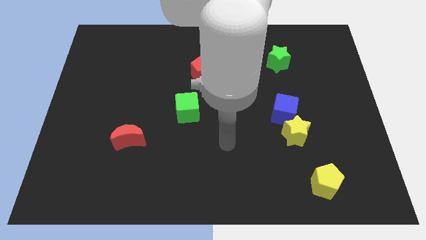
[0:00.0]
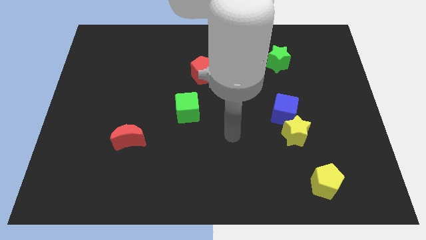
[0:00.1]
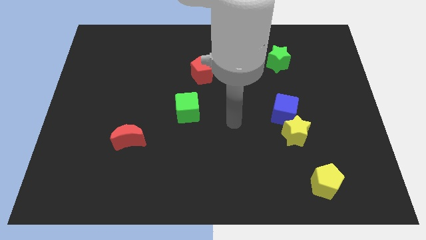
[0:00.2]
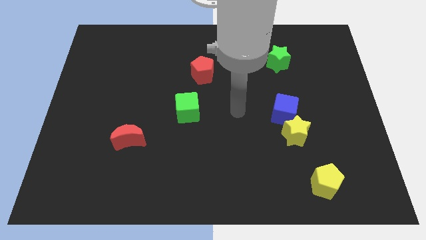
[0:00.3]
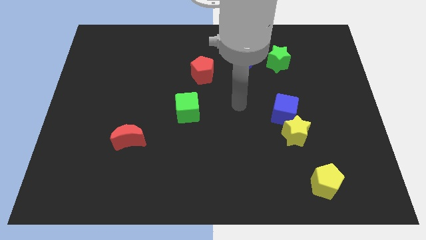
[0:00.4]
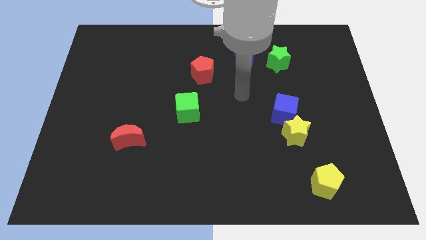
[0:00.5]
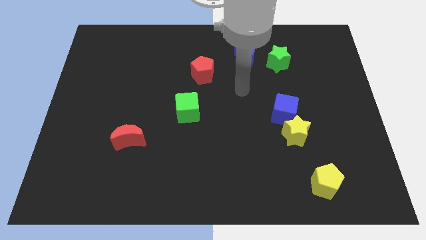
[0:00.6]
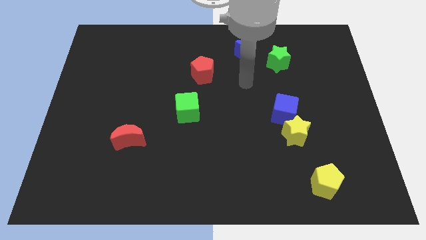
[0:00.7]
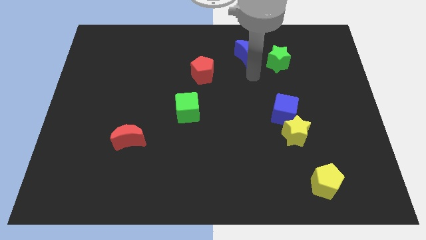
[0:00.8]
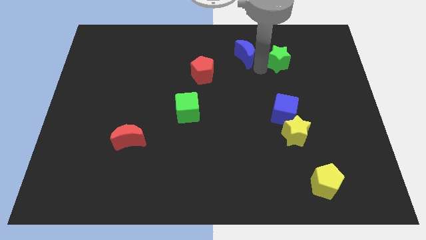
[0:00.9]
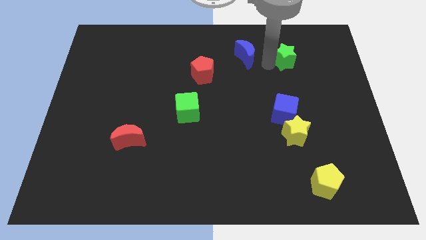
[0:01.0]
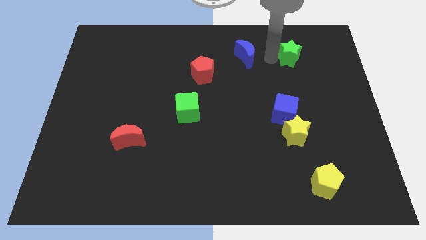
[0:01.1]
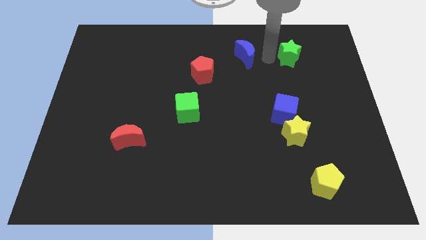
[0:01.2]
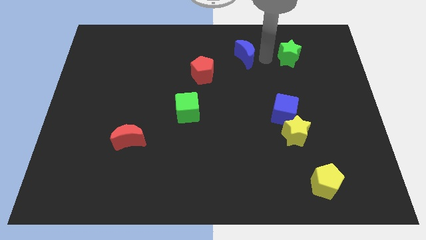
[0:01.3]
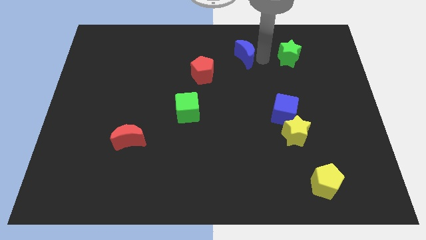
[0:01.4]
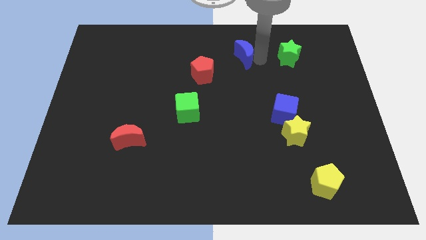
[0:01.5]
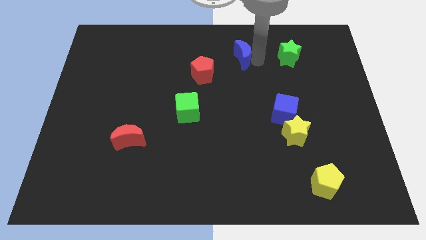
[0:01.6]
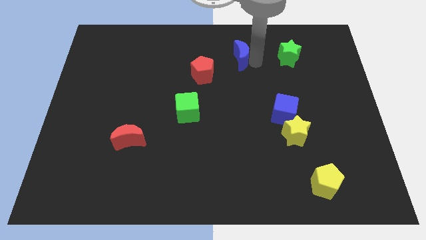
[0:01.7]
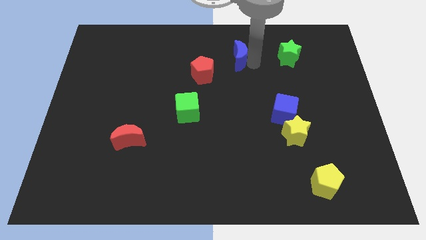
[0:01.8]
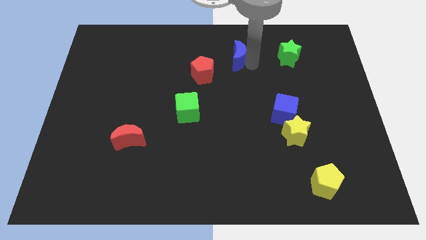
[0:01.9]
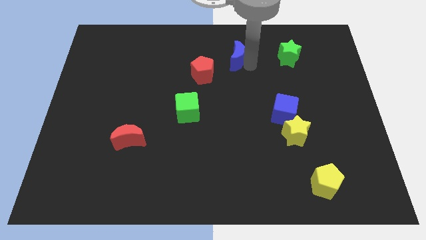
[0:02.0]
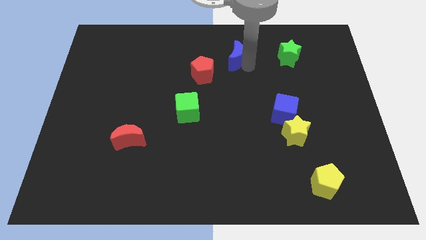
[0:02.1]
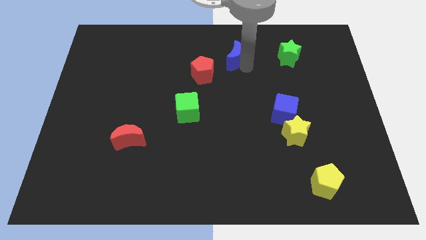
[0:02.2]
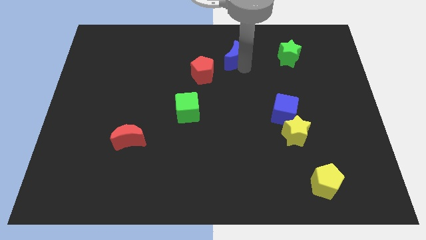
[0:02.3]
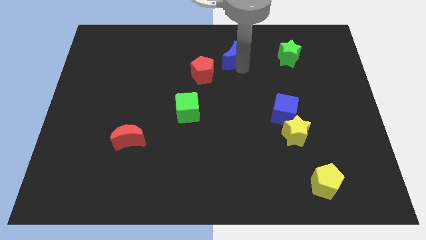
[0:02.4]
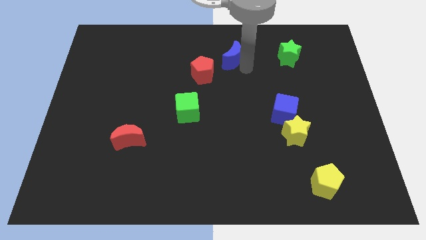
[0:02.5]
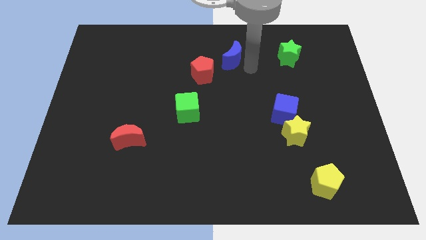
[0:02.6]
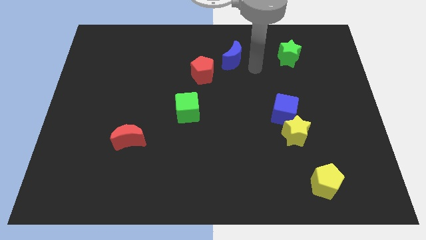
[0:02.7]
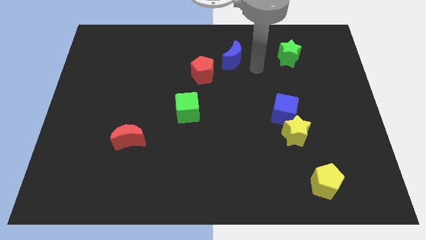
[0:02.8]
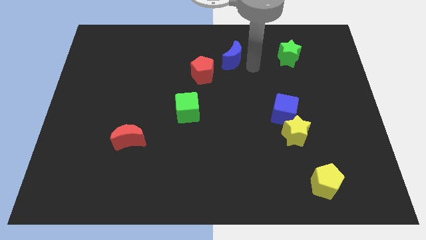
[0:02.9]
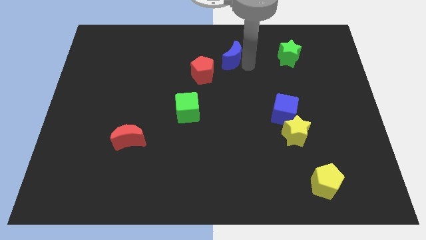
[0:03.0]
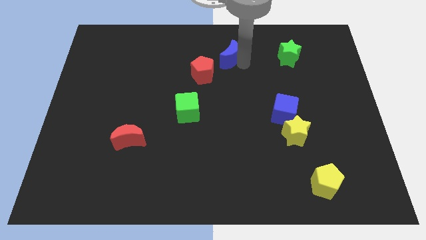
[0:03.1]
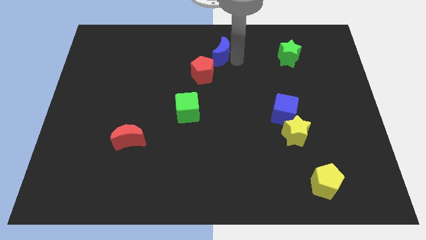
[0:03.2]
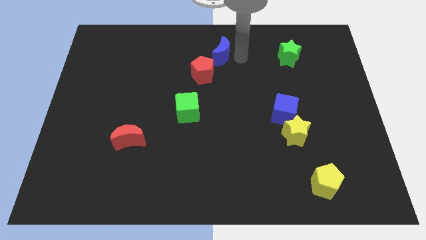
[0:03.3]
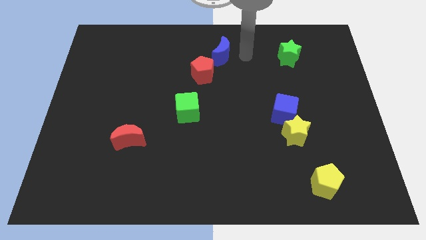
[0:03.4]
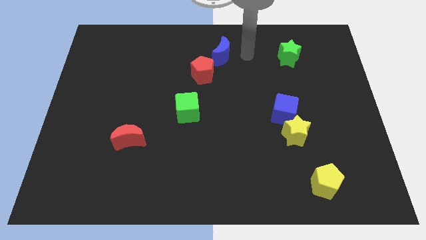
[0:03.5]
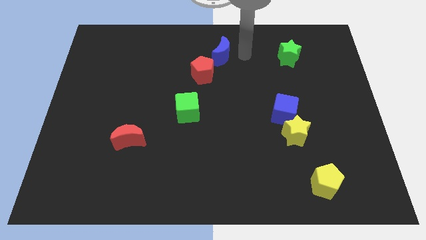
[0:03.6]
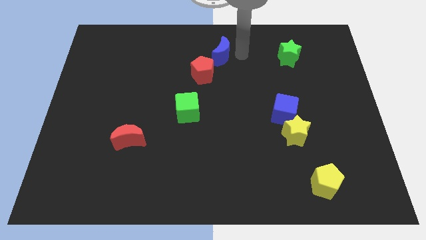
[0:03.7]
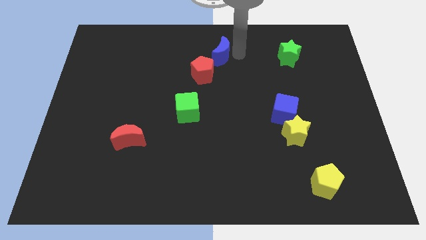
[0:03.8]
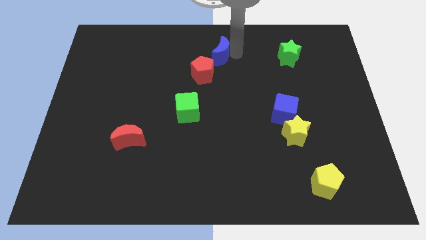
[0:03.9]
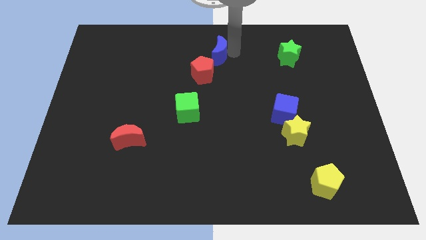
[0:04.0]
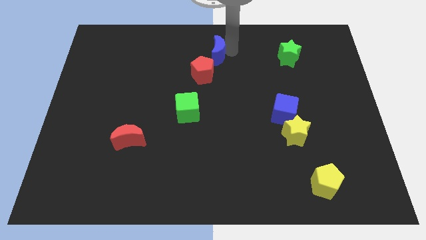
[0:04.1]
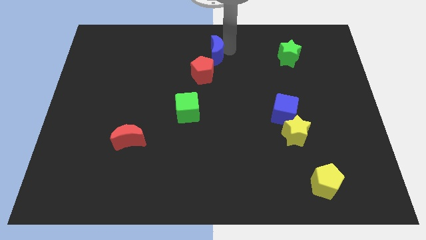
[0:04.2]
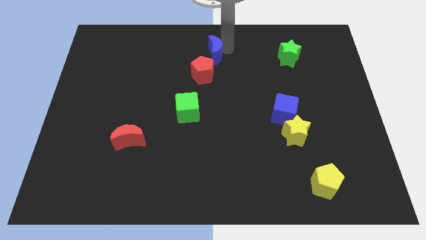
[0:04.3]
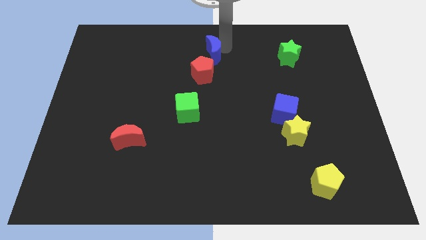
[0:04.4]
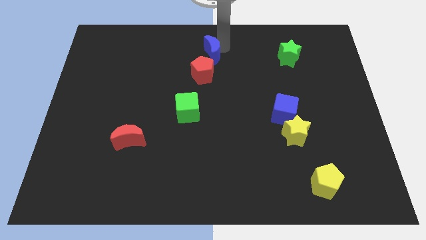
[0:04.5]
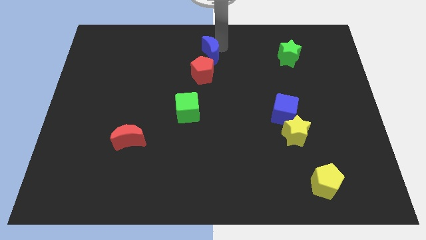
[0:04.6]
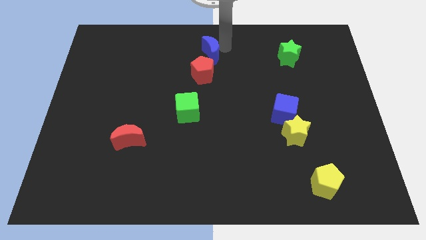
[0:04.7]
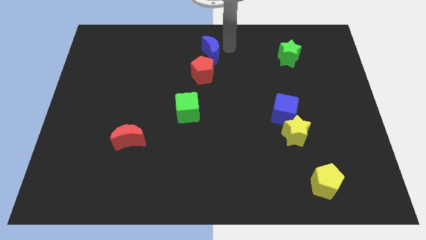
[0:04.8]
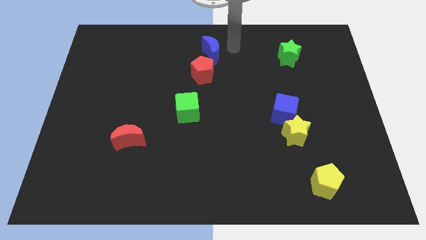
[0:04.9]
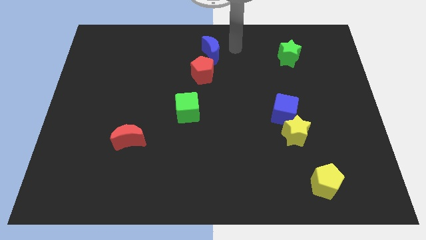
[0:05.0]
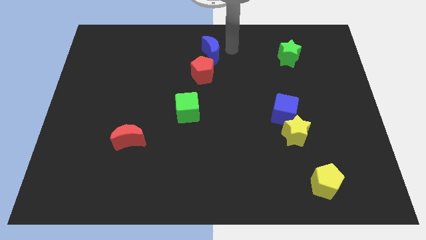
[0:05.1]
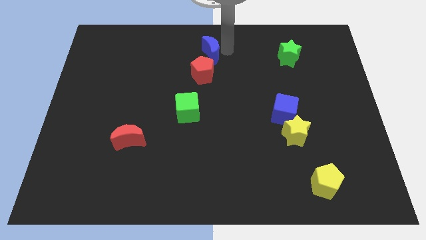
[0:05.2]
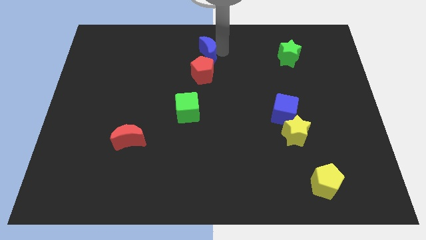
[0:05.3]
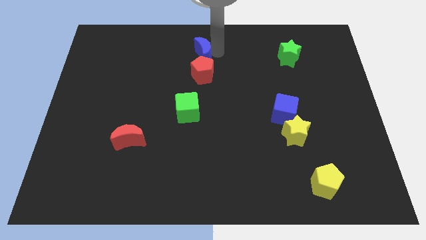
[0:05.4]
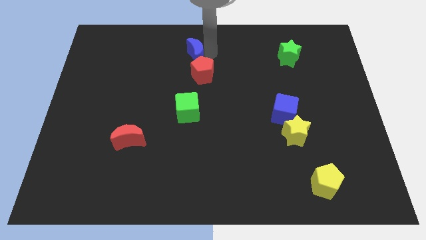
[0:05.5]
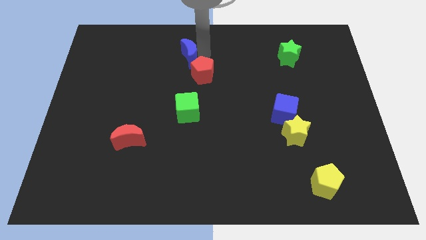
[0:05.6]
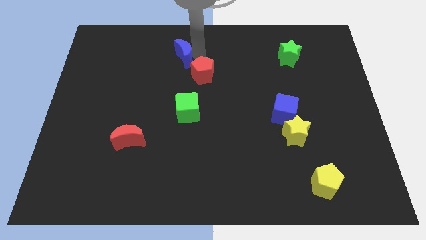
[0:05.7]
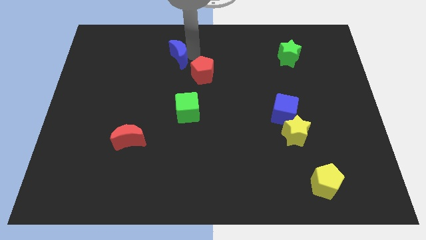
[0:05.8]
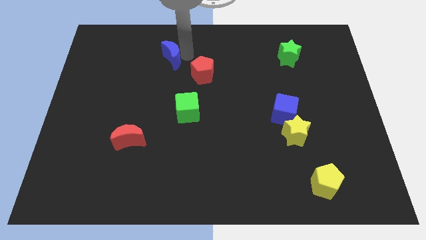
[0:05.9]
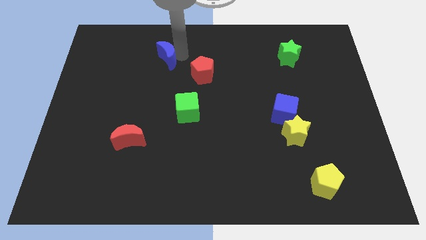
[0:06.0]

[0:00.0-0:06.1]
slide the blue moon left

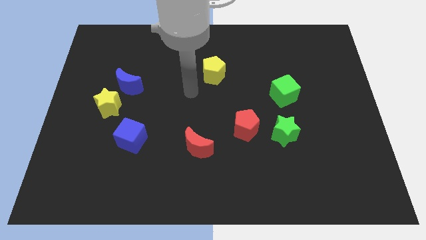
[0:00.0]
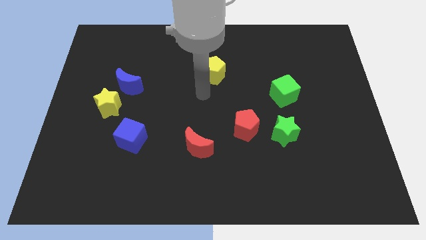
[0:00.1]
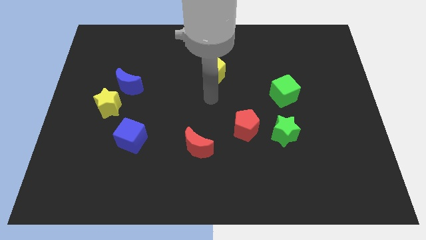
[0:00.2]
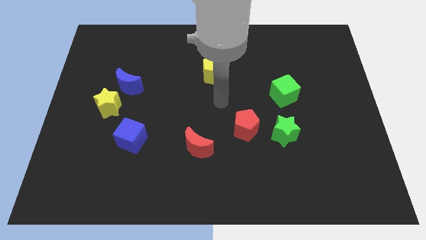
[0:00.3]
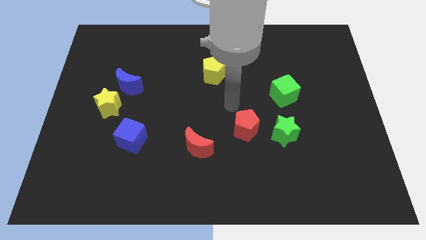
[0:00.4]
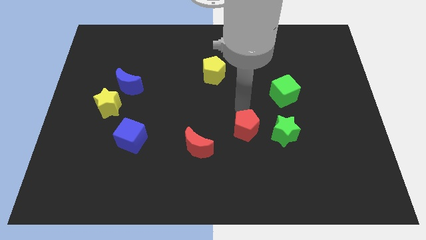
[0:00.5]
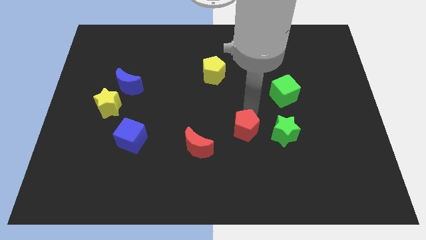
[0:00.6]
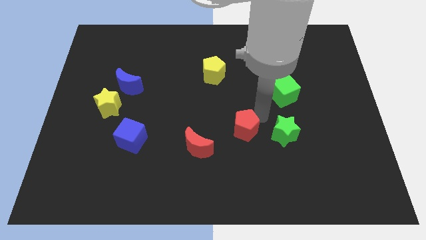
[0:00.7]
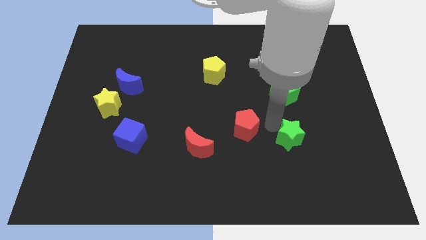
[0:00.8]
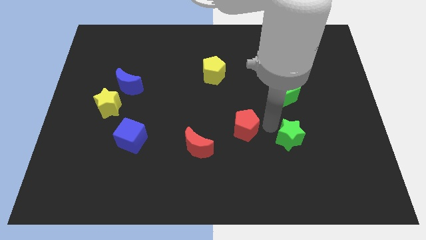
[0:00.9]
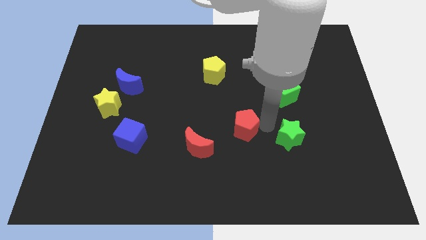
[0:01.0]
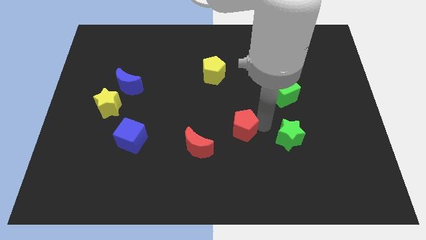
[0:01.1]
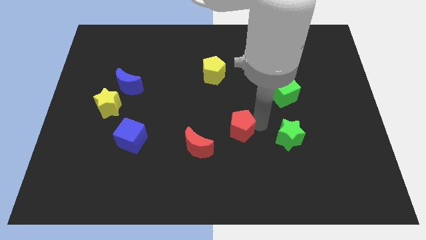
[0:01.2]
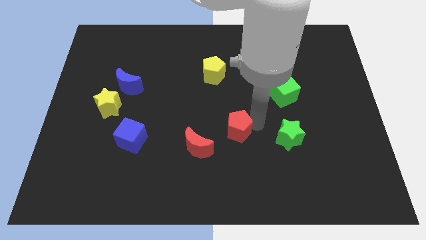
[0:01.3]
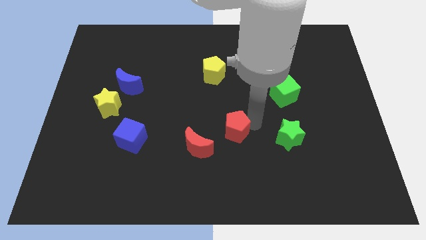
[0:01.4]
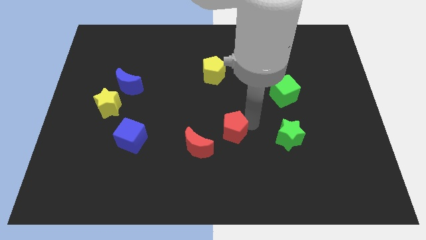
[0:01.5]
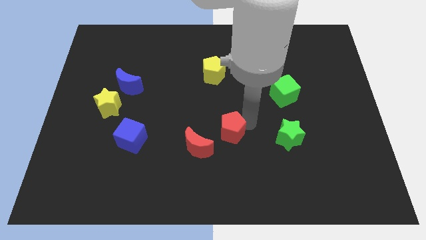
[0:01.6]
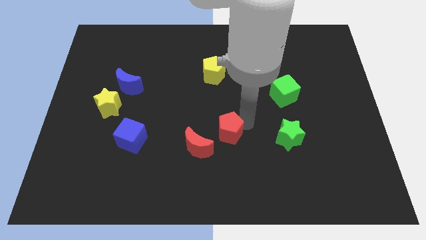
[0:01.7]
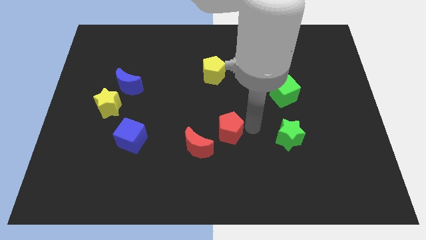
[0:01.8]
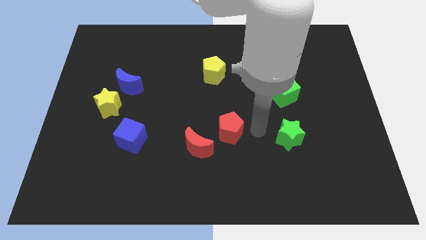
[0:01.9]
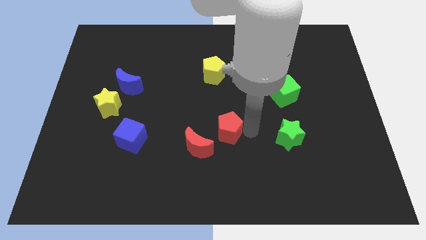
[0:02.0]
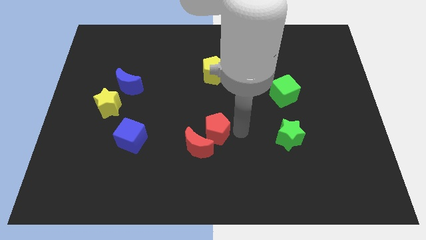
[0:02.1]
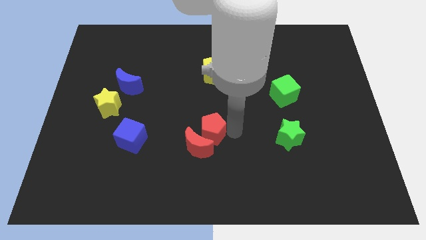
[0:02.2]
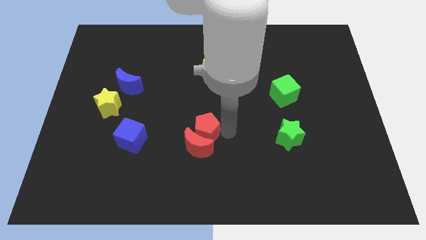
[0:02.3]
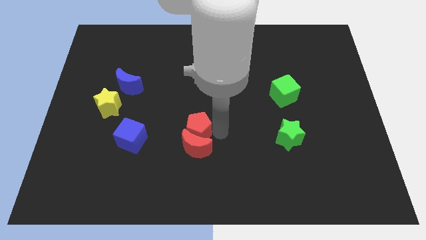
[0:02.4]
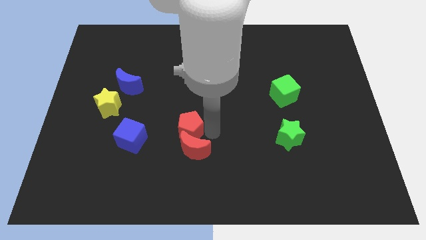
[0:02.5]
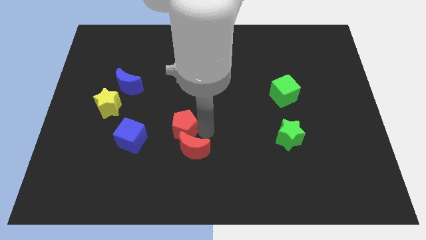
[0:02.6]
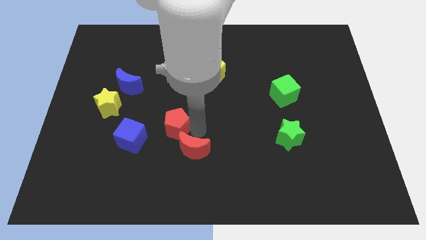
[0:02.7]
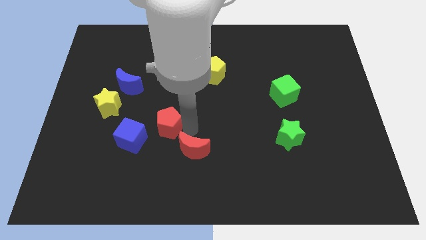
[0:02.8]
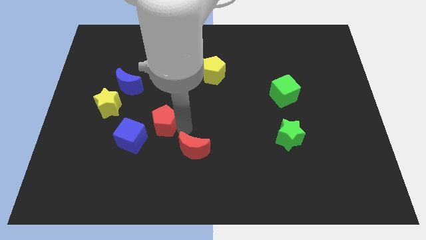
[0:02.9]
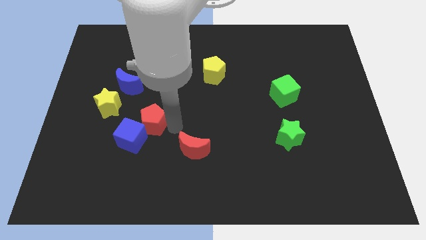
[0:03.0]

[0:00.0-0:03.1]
push the red pentagon to the left
